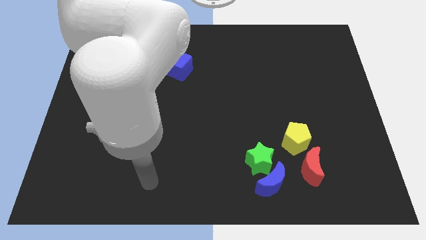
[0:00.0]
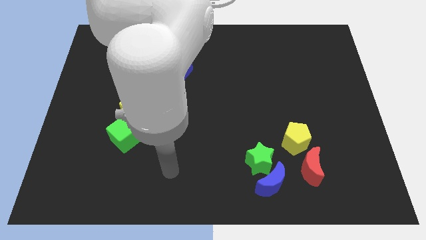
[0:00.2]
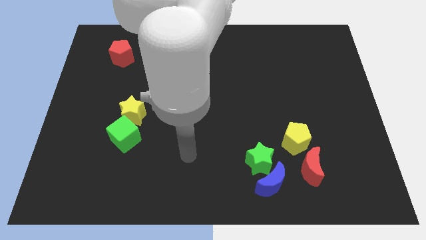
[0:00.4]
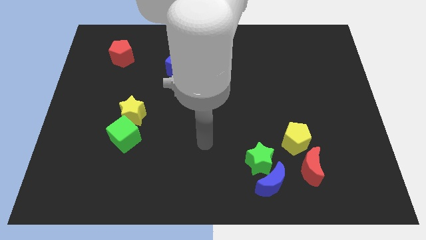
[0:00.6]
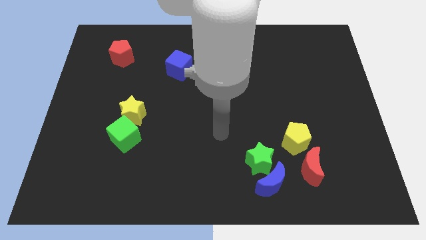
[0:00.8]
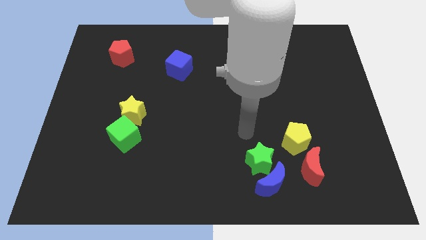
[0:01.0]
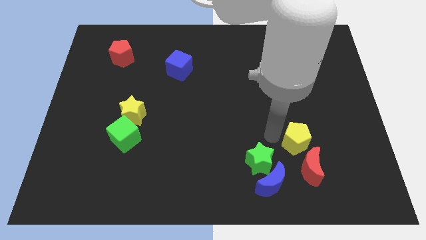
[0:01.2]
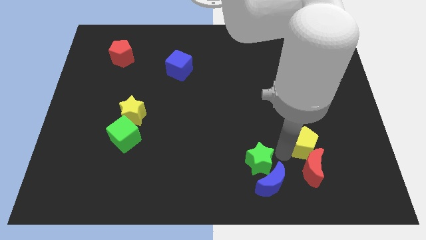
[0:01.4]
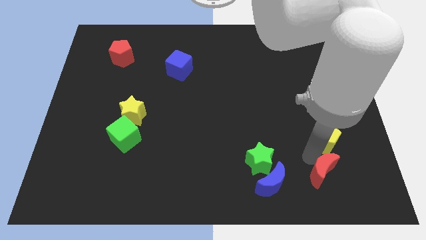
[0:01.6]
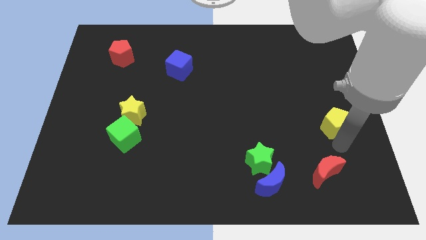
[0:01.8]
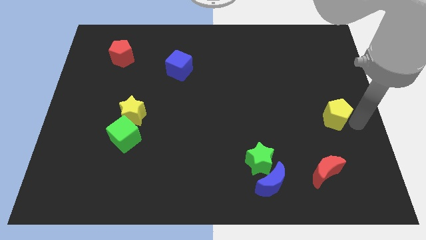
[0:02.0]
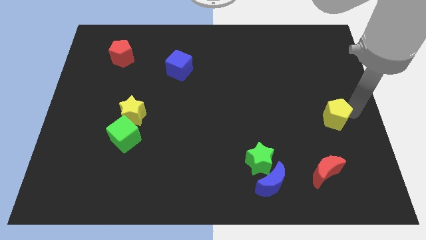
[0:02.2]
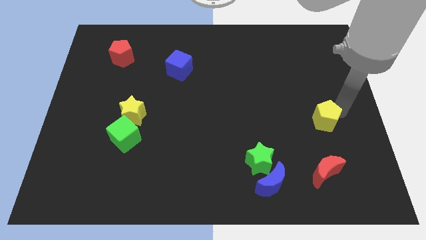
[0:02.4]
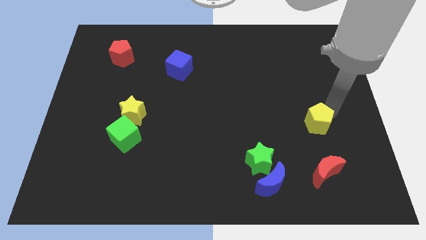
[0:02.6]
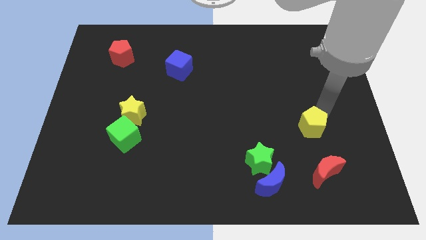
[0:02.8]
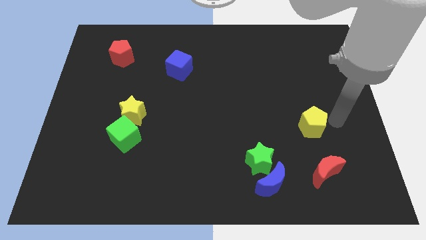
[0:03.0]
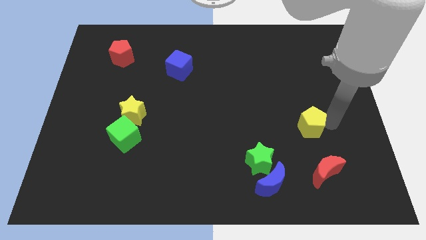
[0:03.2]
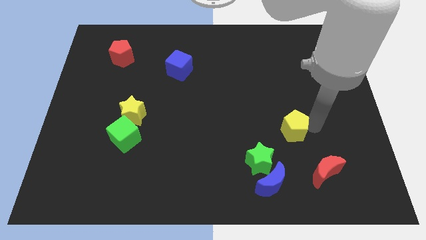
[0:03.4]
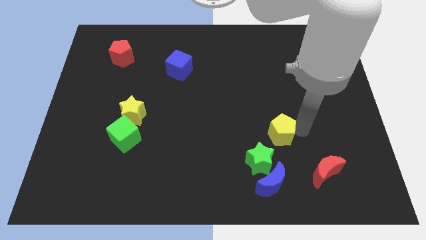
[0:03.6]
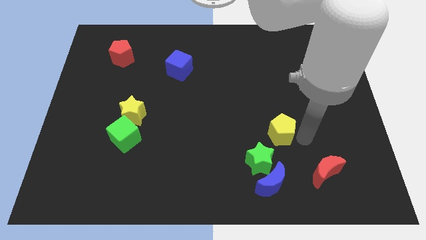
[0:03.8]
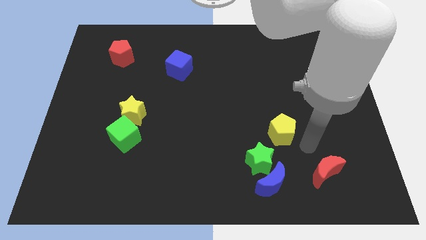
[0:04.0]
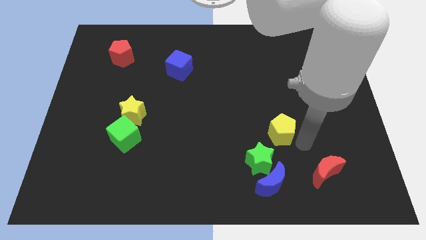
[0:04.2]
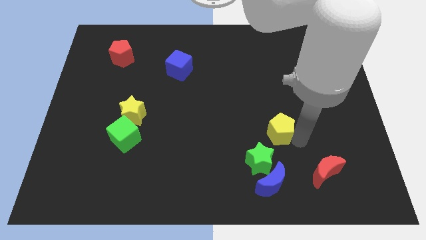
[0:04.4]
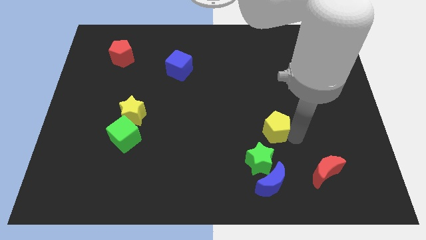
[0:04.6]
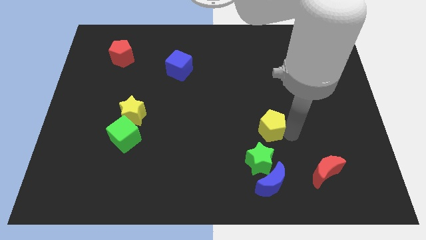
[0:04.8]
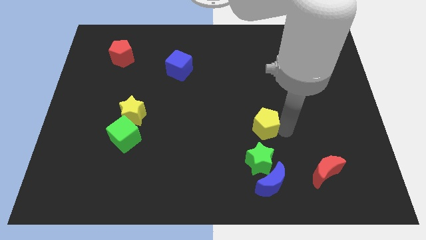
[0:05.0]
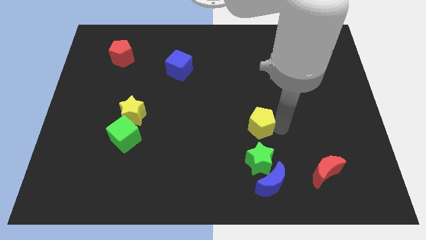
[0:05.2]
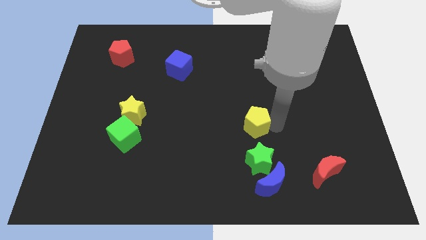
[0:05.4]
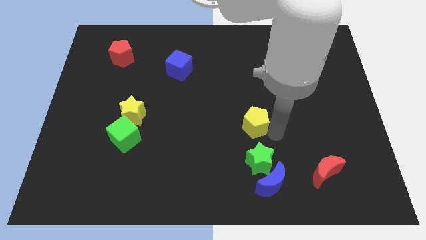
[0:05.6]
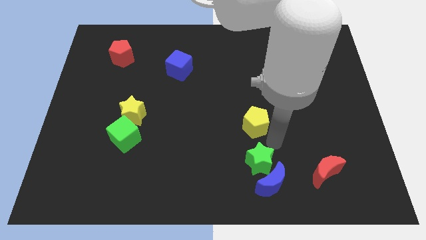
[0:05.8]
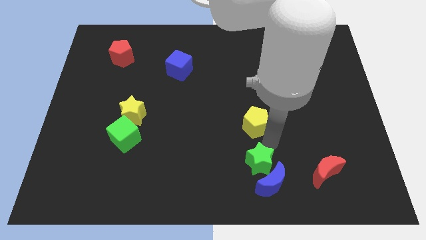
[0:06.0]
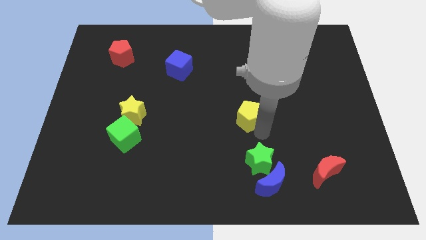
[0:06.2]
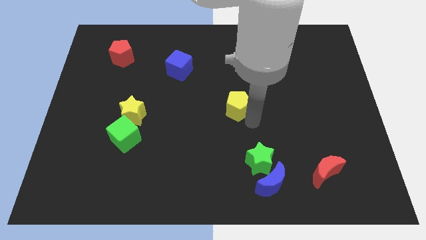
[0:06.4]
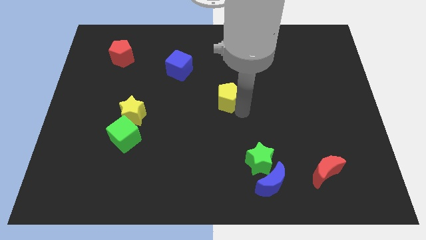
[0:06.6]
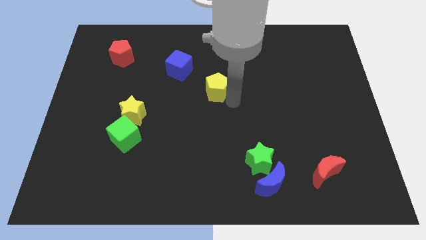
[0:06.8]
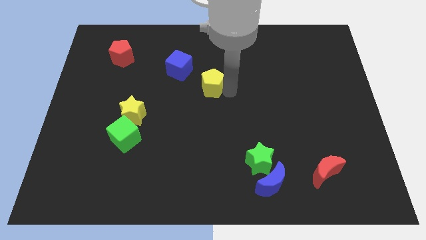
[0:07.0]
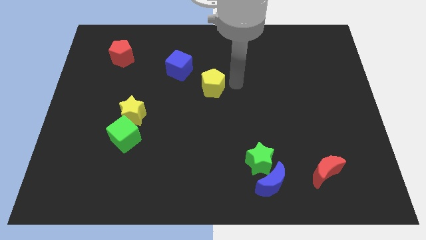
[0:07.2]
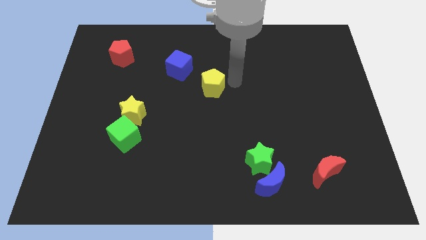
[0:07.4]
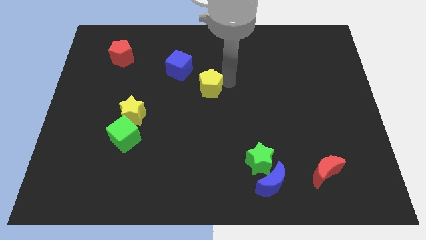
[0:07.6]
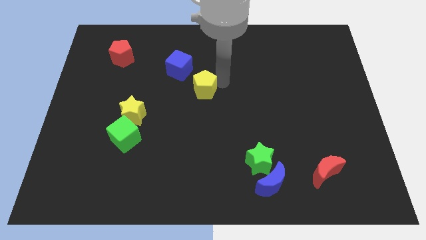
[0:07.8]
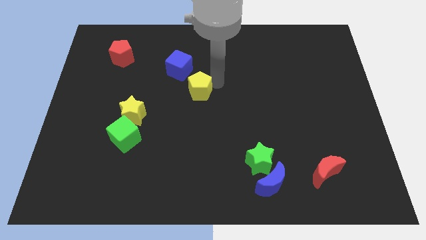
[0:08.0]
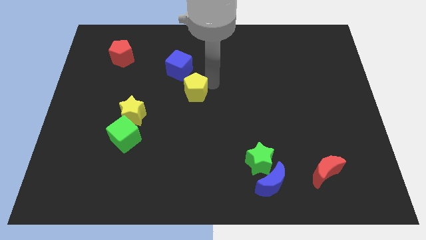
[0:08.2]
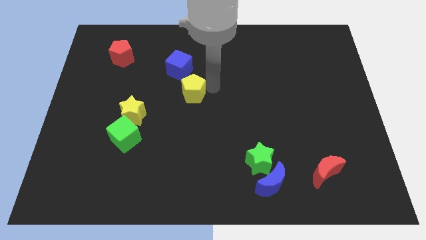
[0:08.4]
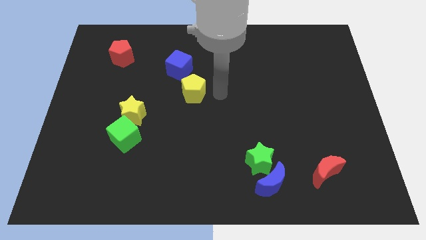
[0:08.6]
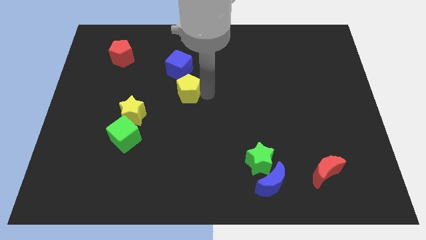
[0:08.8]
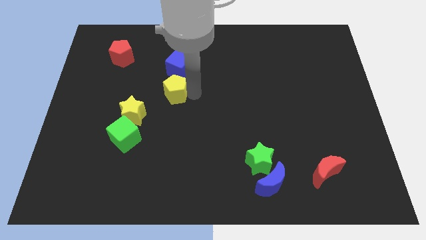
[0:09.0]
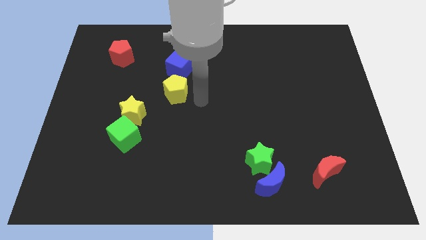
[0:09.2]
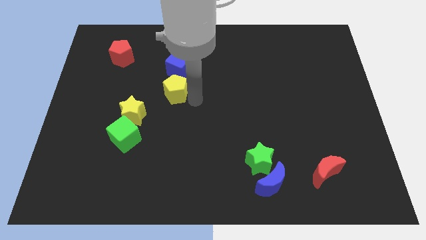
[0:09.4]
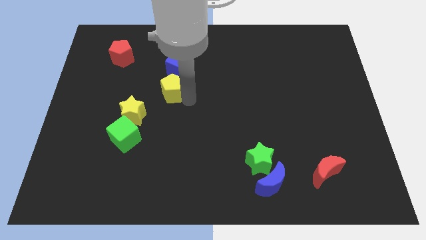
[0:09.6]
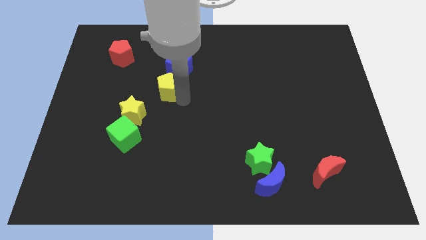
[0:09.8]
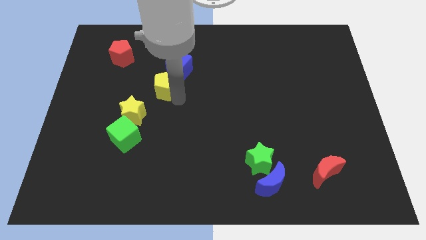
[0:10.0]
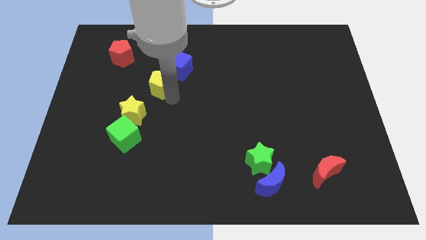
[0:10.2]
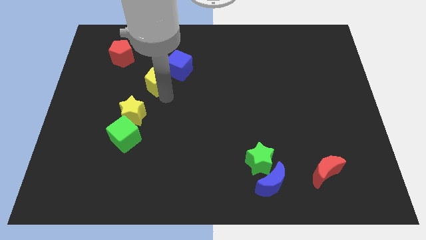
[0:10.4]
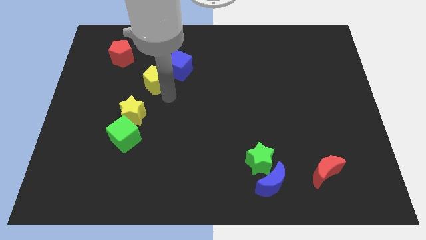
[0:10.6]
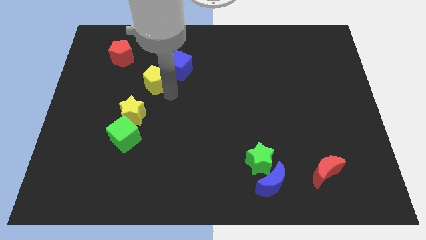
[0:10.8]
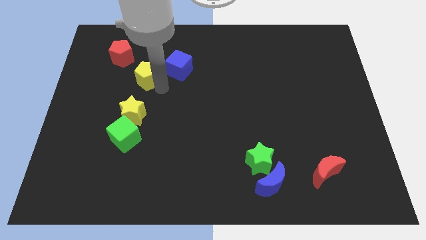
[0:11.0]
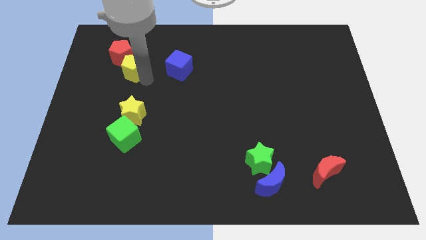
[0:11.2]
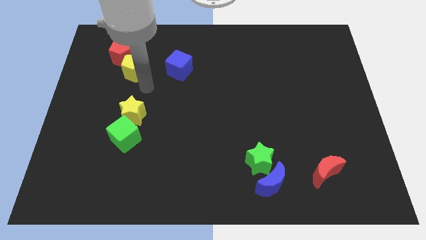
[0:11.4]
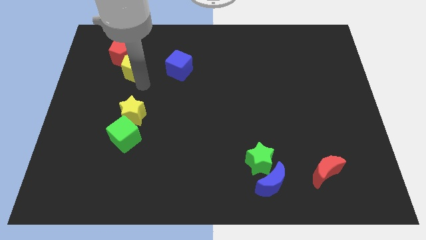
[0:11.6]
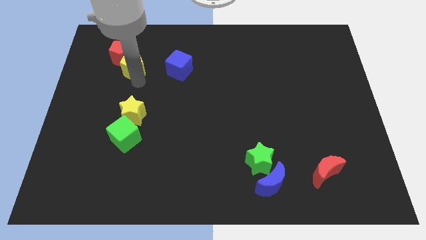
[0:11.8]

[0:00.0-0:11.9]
slide the yellow pentagon close to the red pentagon

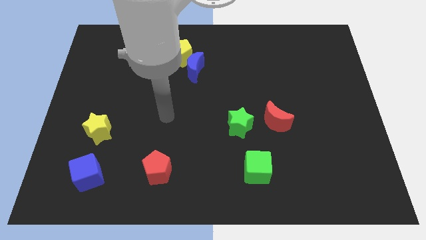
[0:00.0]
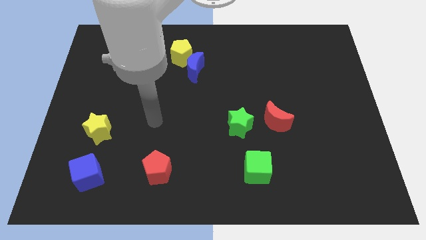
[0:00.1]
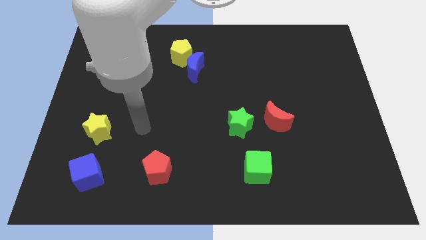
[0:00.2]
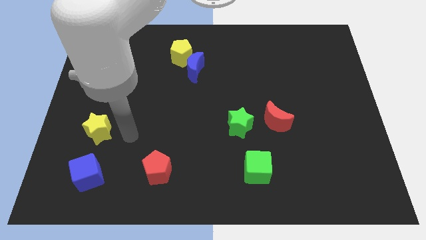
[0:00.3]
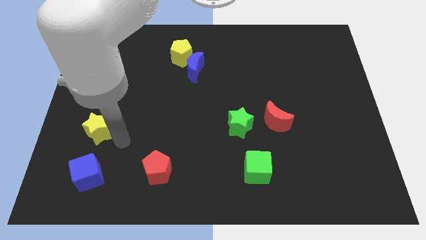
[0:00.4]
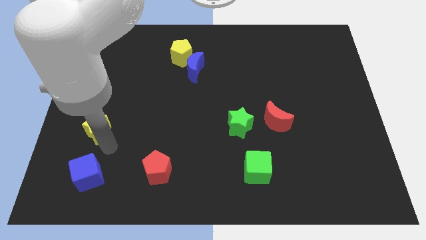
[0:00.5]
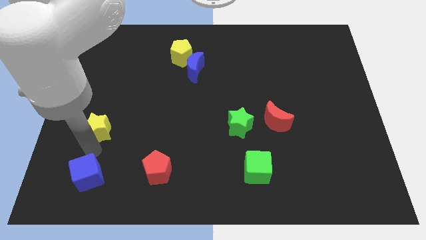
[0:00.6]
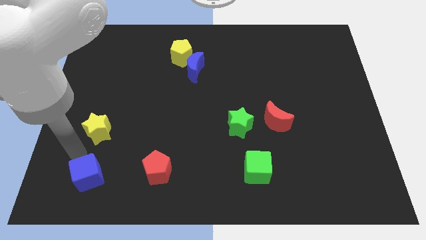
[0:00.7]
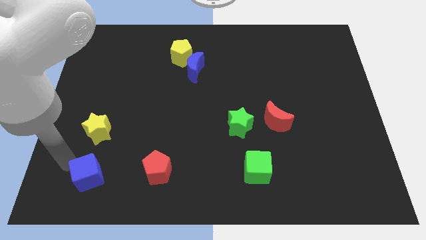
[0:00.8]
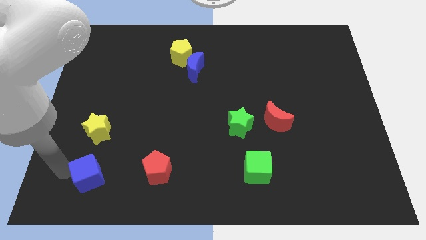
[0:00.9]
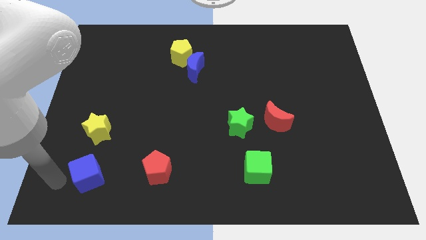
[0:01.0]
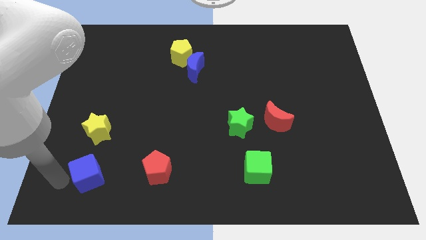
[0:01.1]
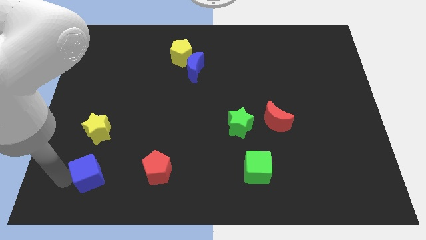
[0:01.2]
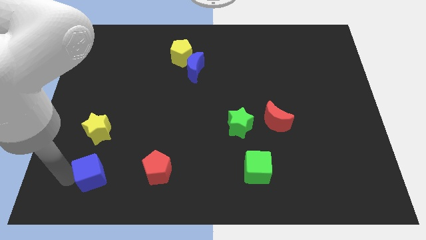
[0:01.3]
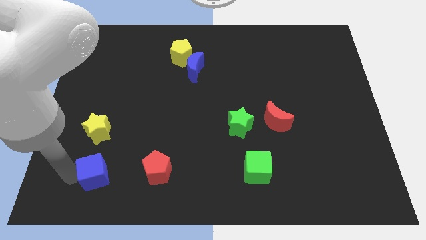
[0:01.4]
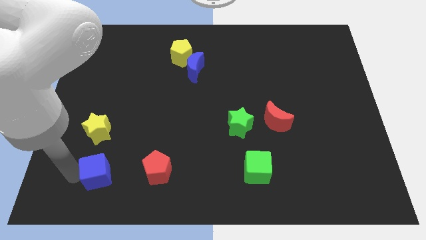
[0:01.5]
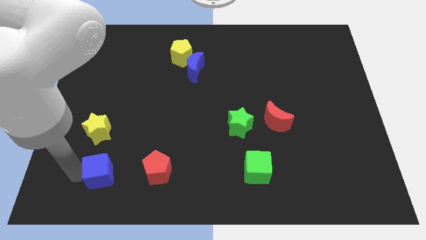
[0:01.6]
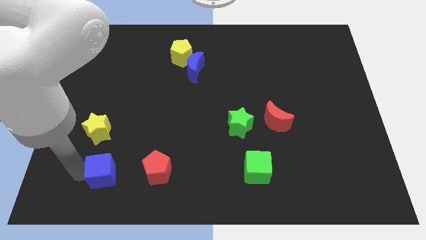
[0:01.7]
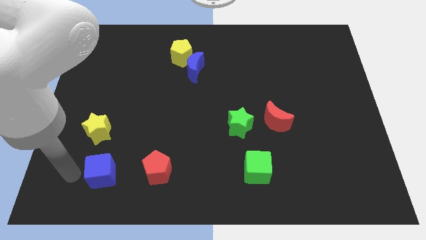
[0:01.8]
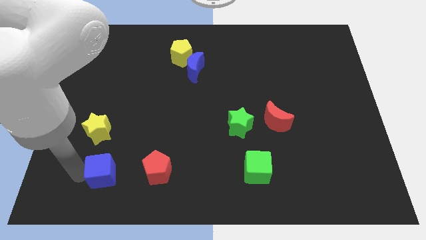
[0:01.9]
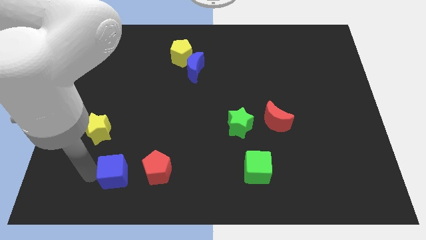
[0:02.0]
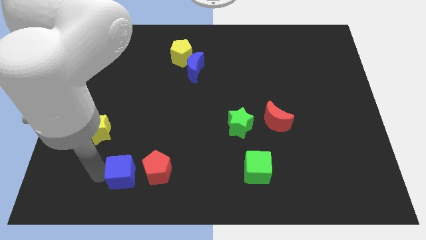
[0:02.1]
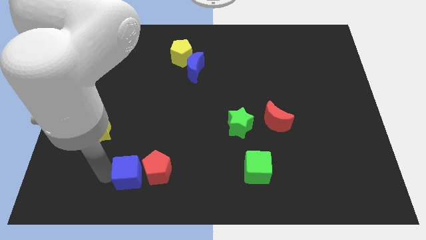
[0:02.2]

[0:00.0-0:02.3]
move the blue cube to the red pentagon
